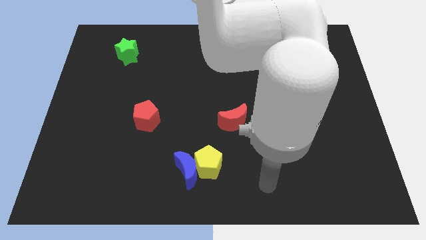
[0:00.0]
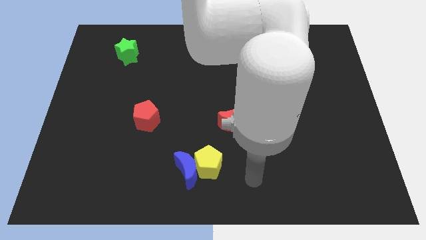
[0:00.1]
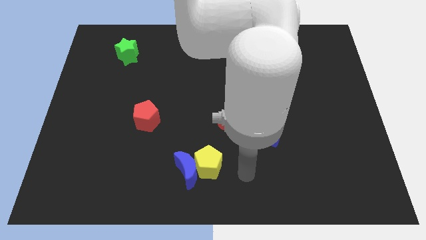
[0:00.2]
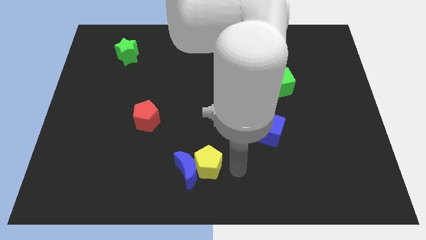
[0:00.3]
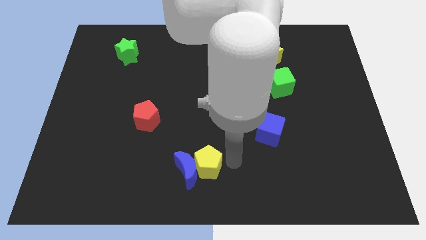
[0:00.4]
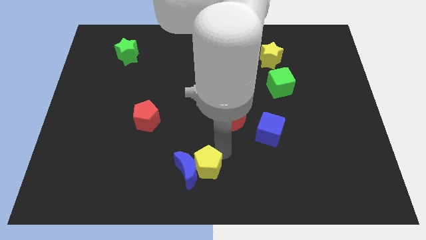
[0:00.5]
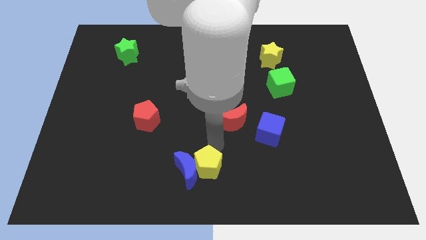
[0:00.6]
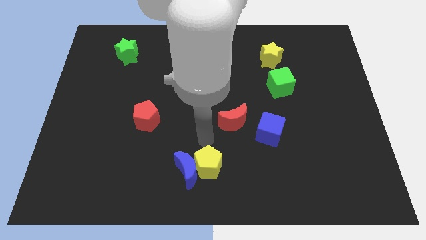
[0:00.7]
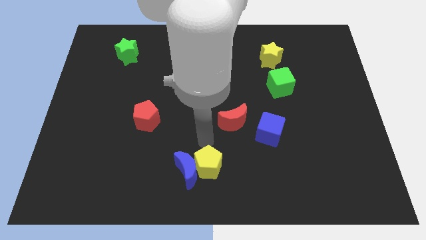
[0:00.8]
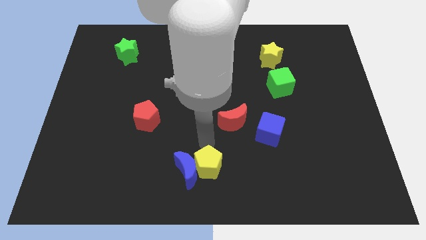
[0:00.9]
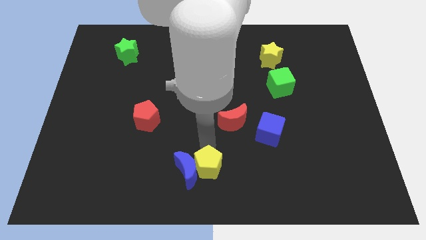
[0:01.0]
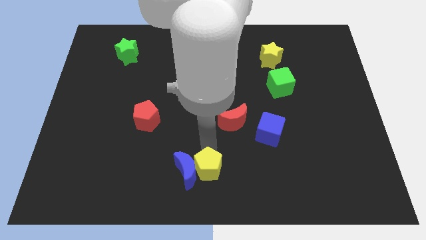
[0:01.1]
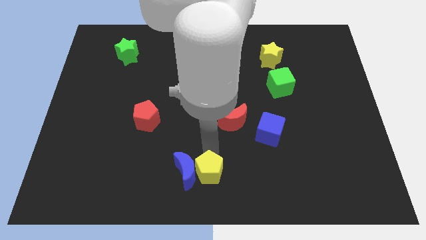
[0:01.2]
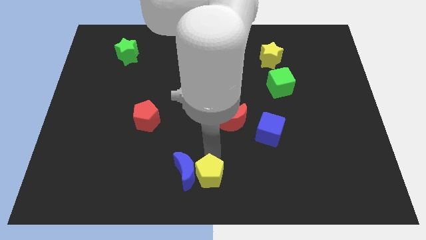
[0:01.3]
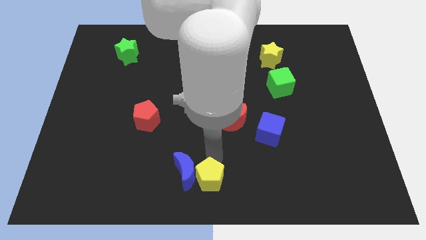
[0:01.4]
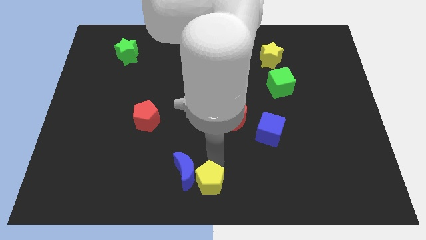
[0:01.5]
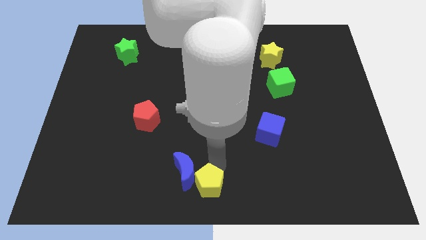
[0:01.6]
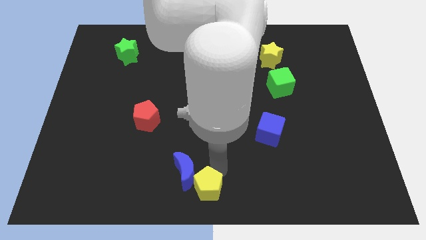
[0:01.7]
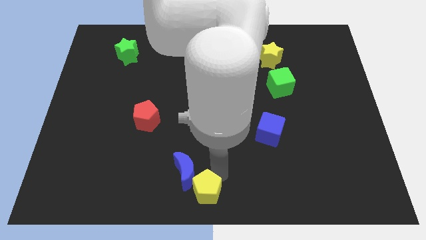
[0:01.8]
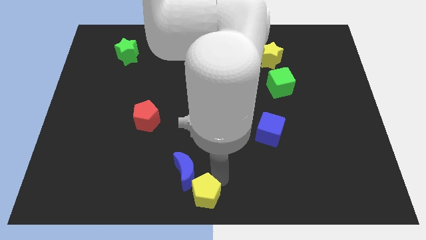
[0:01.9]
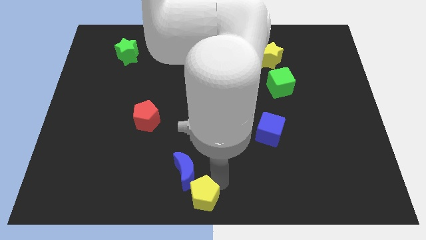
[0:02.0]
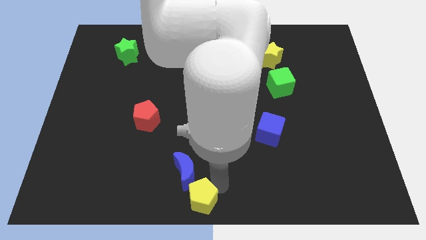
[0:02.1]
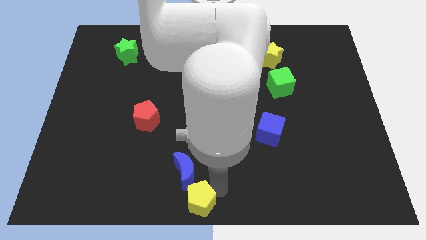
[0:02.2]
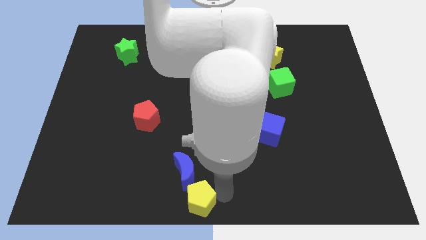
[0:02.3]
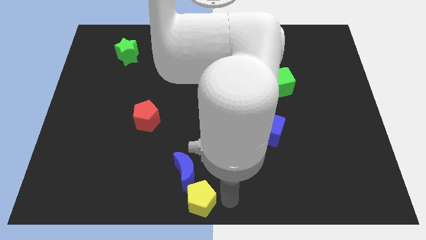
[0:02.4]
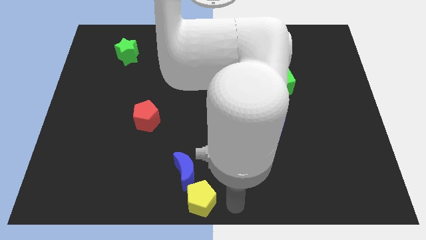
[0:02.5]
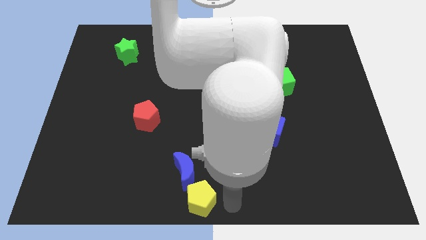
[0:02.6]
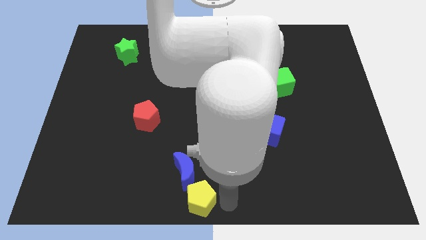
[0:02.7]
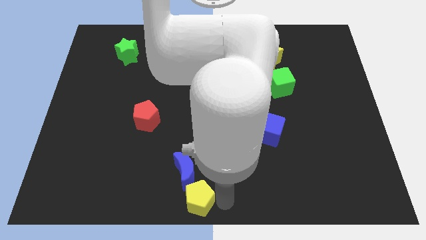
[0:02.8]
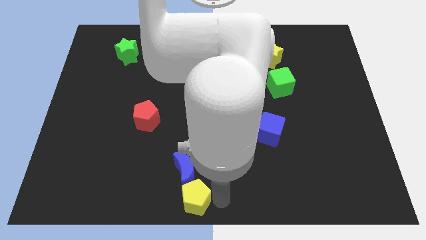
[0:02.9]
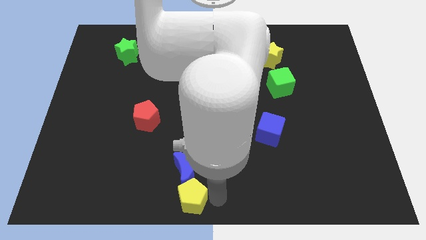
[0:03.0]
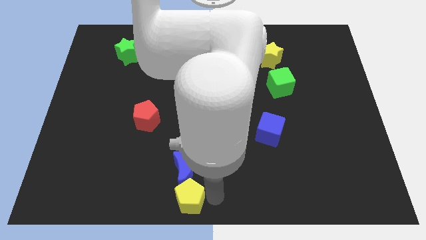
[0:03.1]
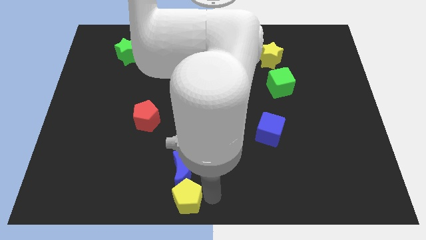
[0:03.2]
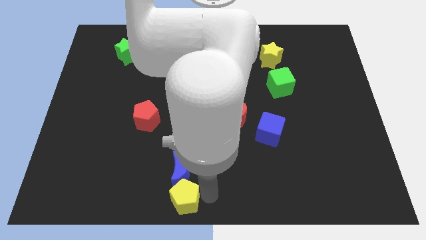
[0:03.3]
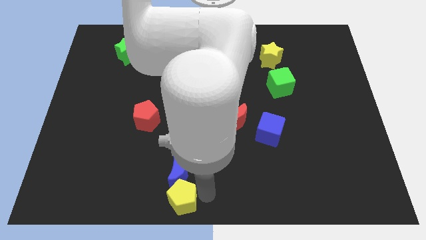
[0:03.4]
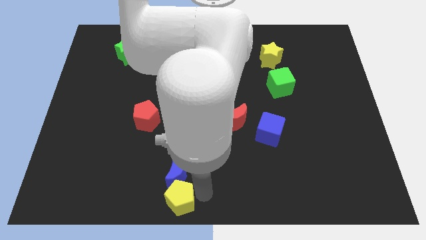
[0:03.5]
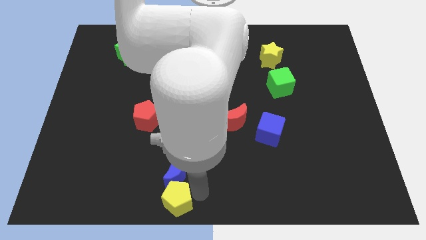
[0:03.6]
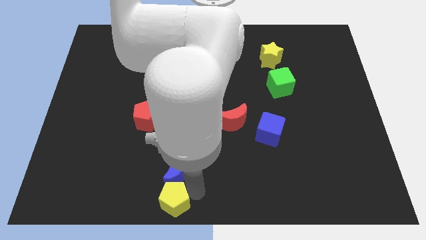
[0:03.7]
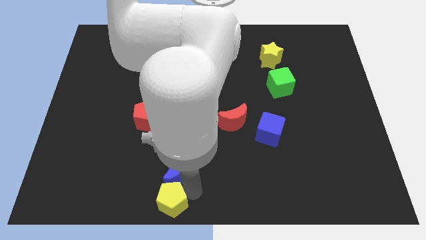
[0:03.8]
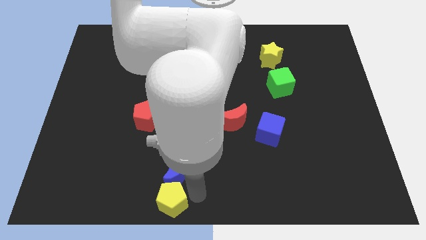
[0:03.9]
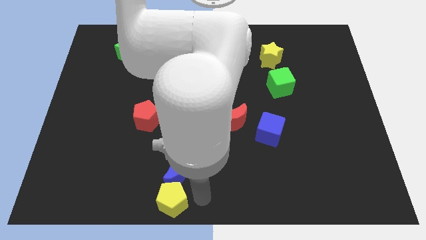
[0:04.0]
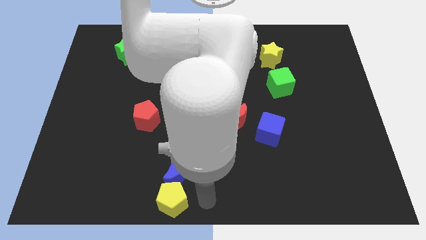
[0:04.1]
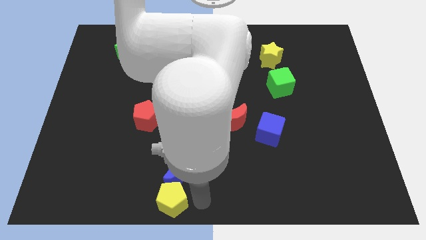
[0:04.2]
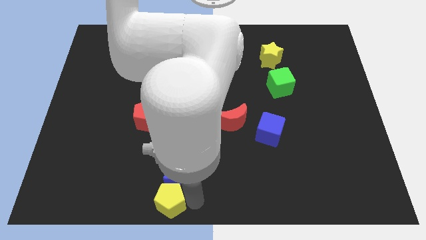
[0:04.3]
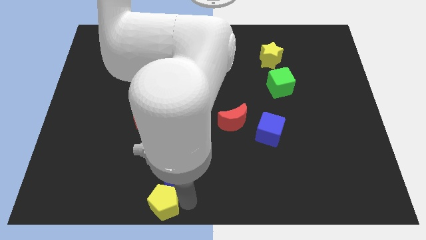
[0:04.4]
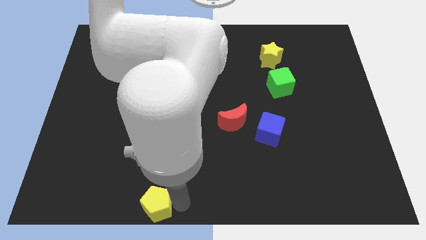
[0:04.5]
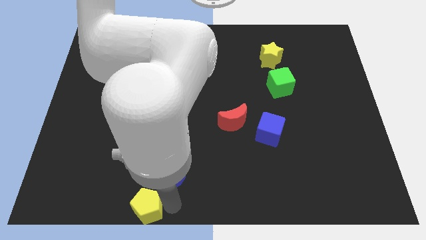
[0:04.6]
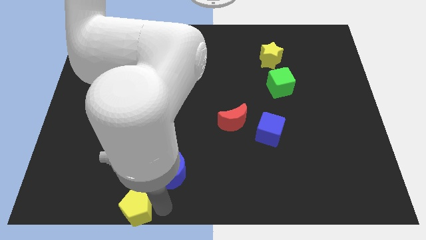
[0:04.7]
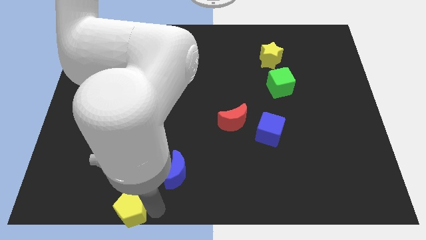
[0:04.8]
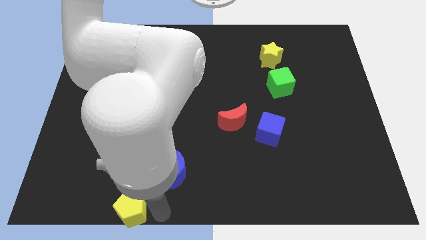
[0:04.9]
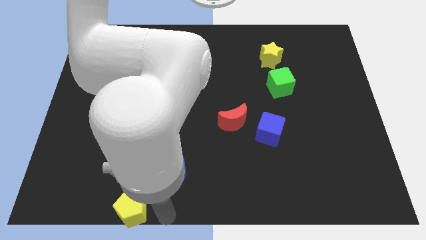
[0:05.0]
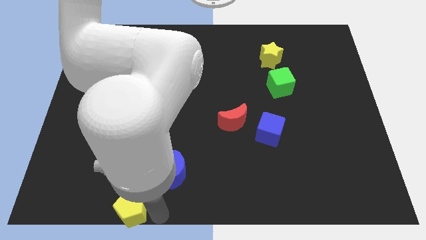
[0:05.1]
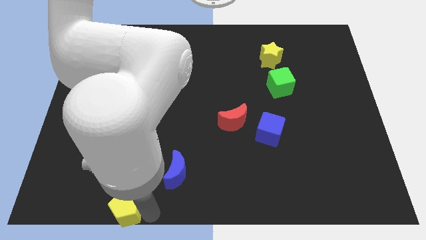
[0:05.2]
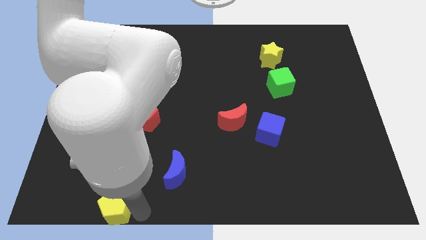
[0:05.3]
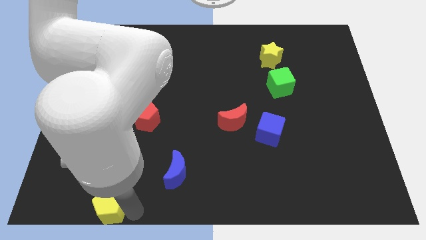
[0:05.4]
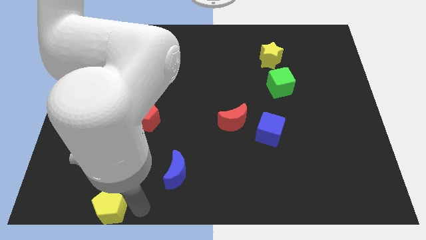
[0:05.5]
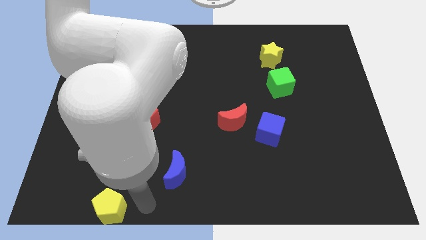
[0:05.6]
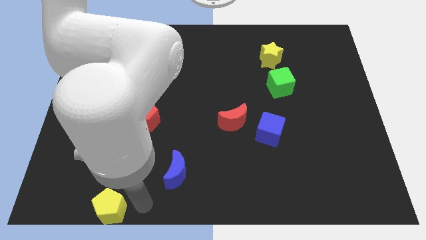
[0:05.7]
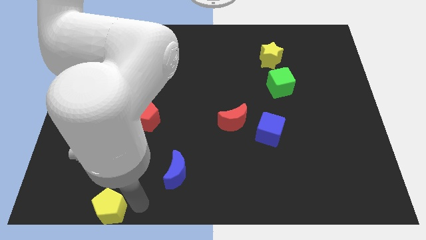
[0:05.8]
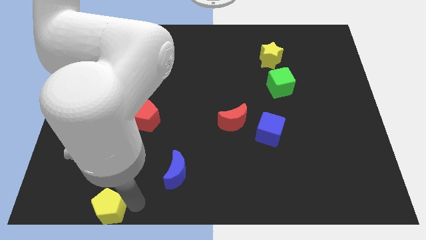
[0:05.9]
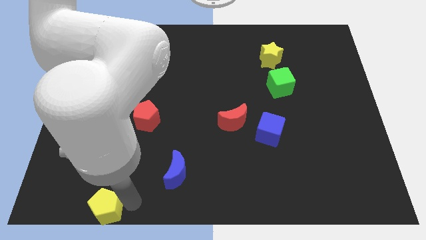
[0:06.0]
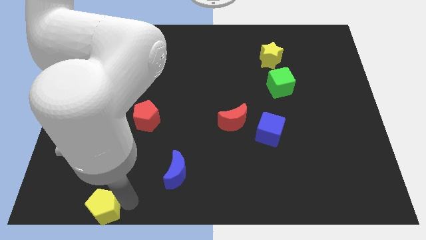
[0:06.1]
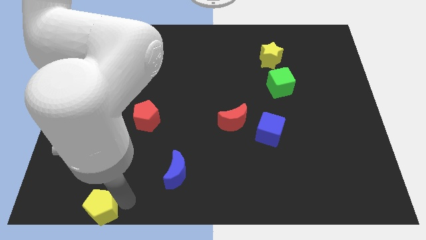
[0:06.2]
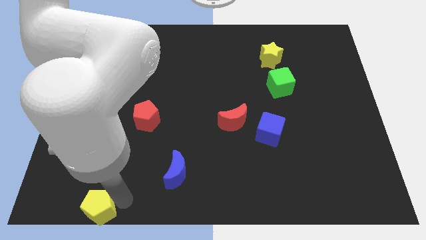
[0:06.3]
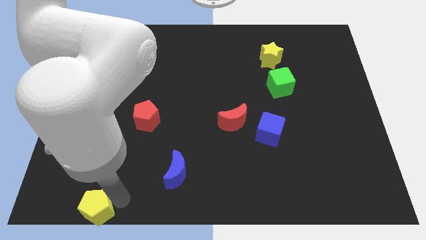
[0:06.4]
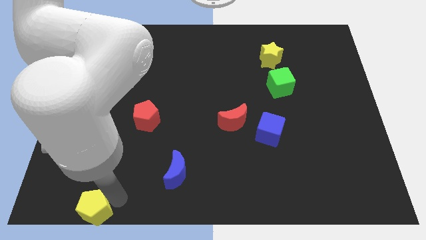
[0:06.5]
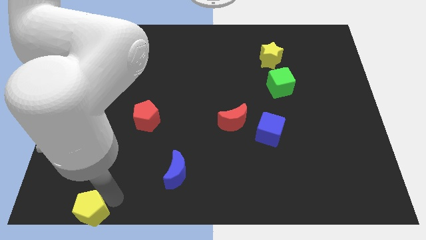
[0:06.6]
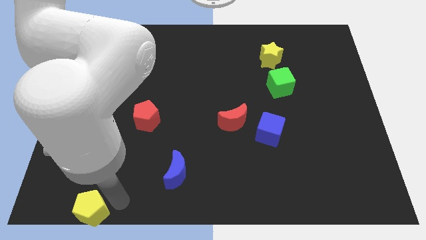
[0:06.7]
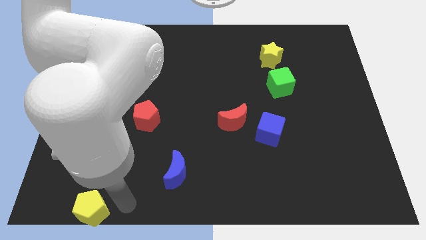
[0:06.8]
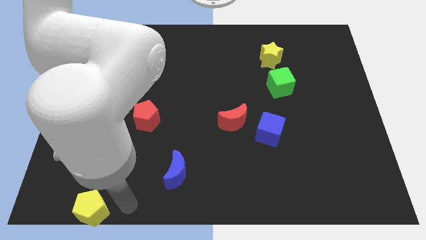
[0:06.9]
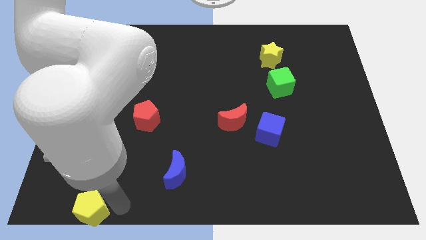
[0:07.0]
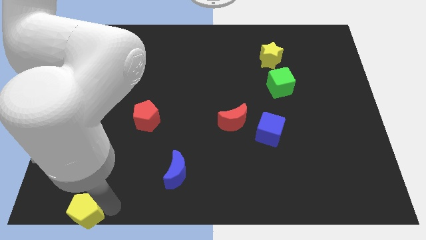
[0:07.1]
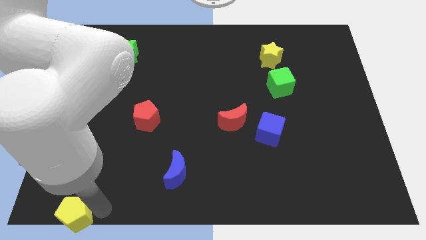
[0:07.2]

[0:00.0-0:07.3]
slide the yellow pentagon to the bottom left corner

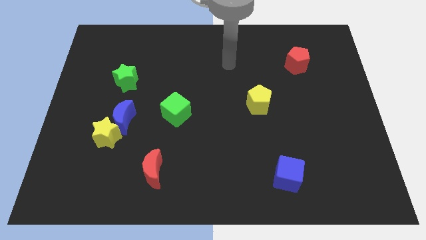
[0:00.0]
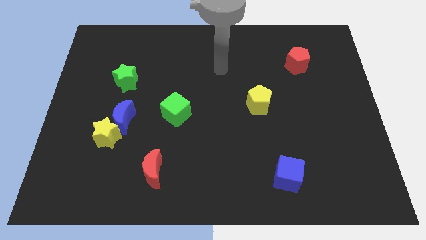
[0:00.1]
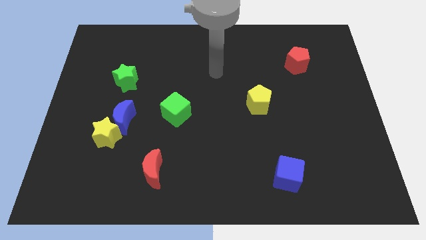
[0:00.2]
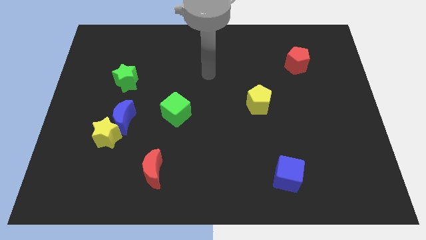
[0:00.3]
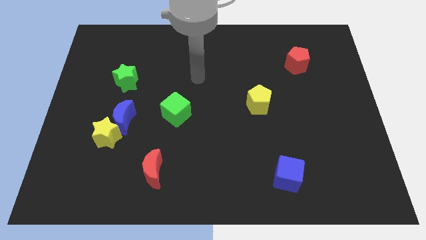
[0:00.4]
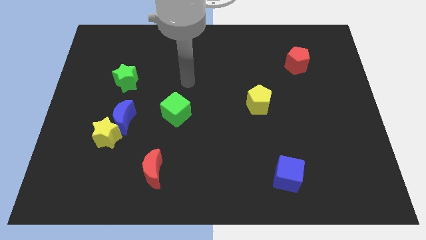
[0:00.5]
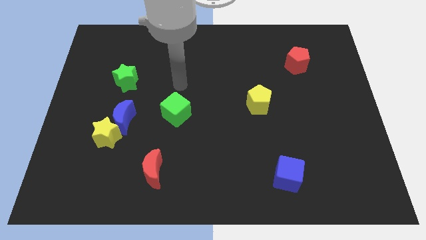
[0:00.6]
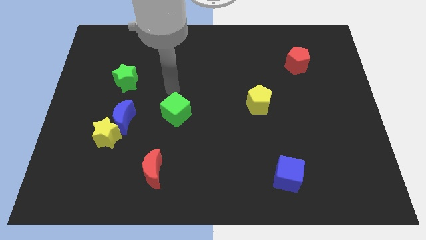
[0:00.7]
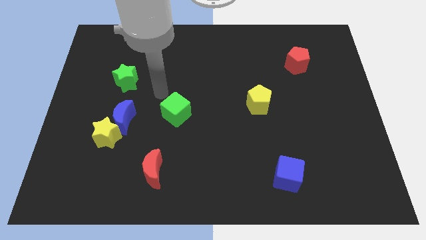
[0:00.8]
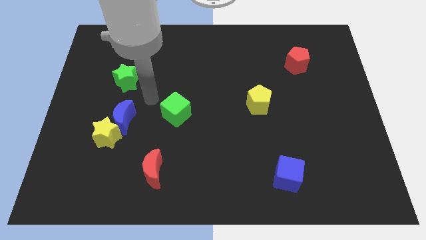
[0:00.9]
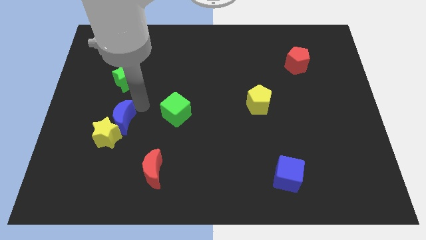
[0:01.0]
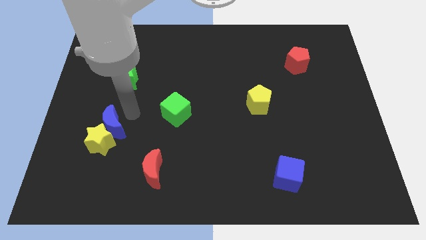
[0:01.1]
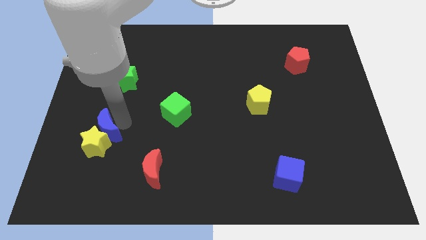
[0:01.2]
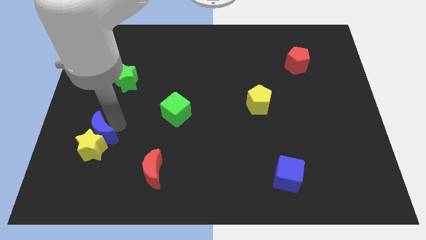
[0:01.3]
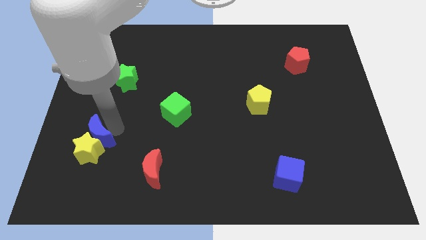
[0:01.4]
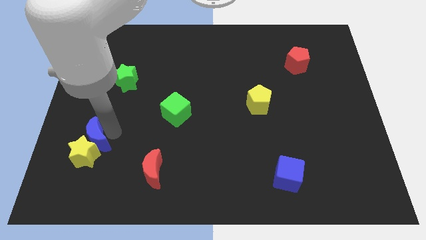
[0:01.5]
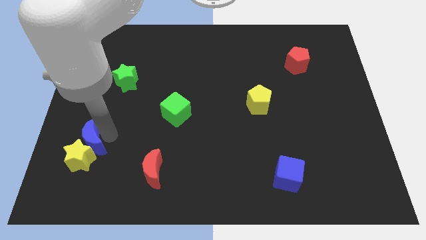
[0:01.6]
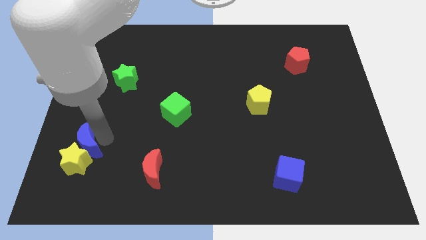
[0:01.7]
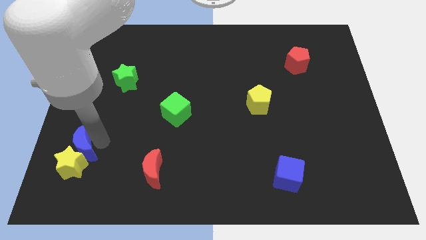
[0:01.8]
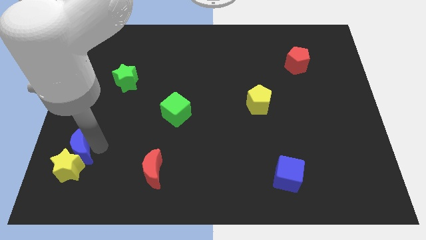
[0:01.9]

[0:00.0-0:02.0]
put the yellow star to the lower left corner
